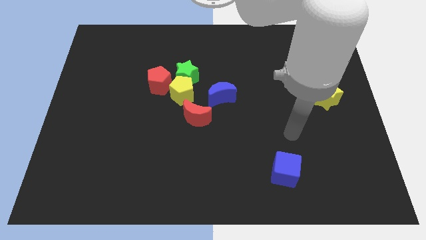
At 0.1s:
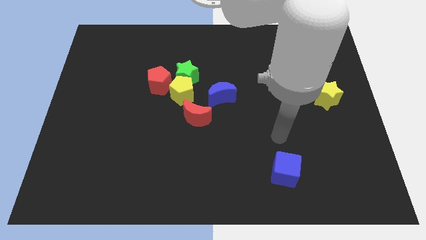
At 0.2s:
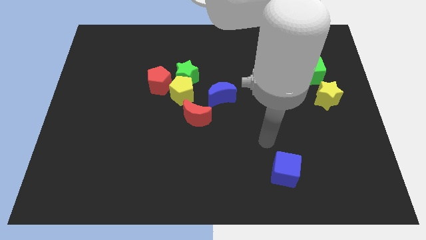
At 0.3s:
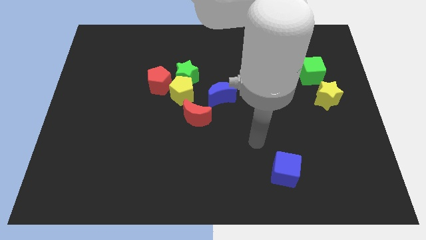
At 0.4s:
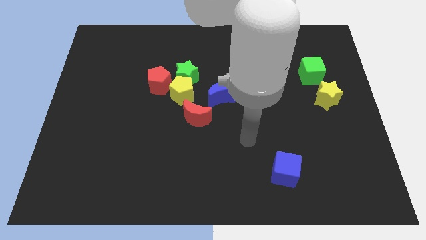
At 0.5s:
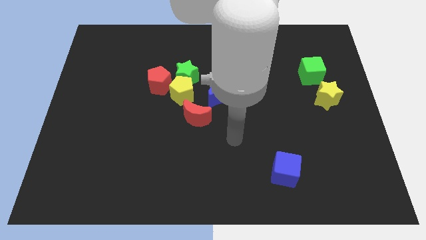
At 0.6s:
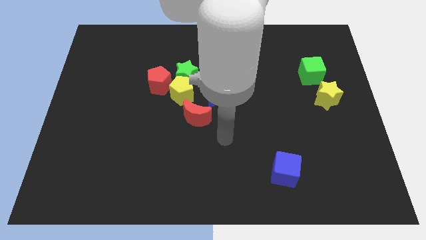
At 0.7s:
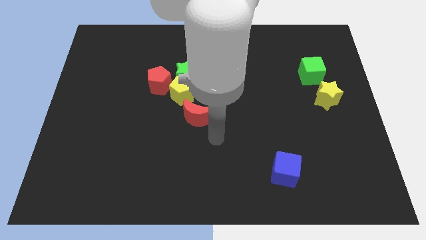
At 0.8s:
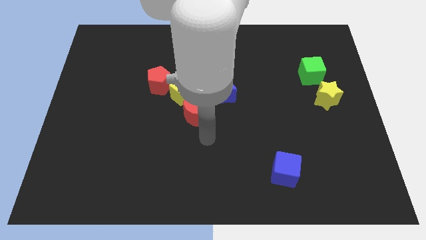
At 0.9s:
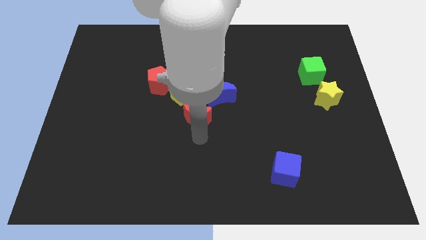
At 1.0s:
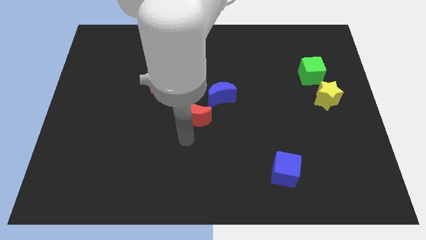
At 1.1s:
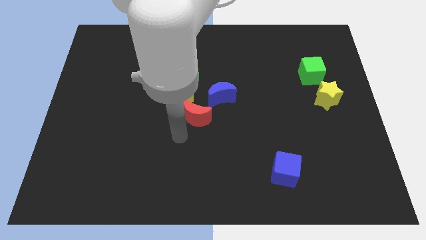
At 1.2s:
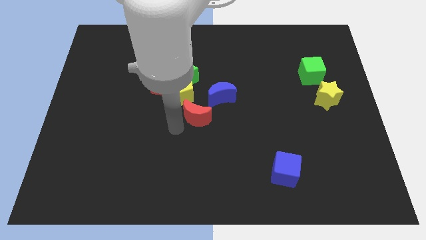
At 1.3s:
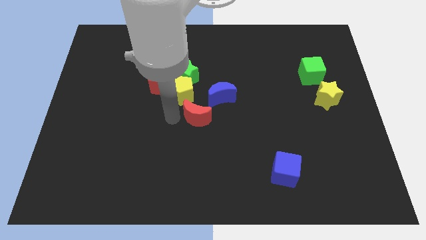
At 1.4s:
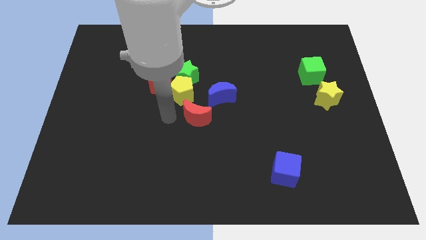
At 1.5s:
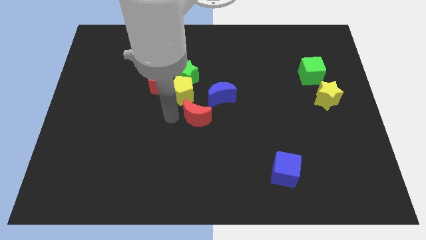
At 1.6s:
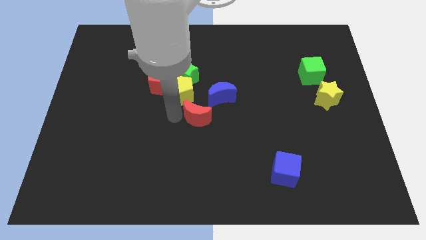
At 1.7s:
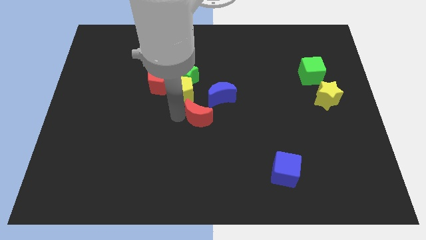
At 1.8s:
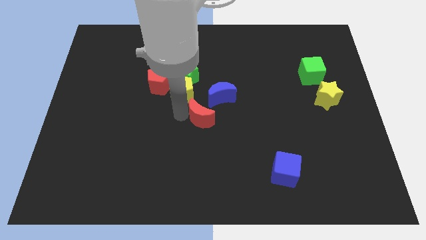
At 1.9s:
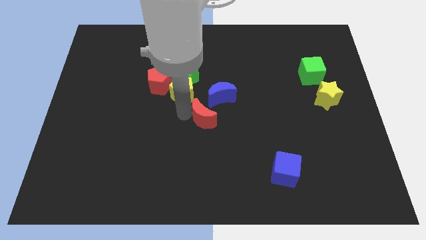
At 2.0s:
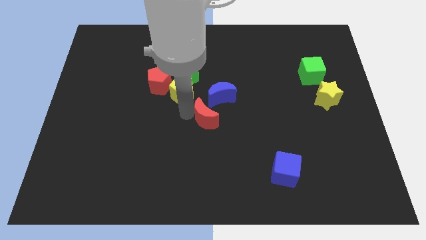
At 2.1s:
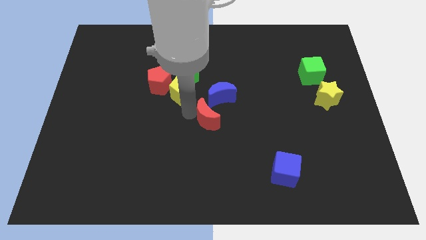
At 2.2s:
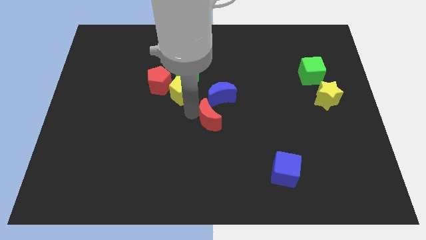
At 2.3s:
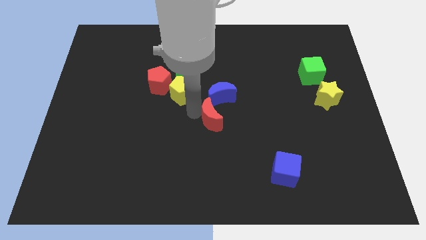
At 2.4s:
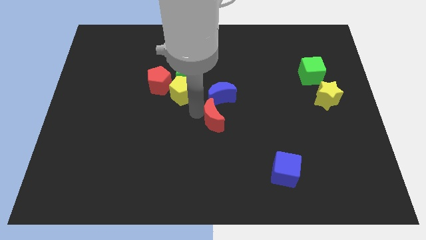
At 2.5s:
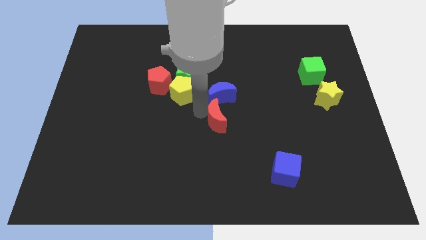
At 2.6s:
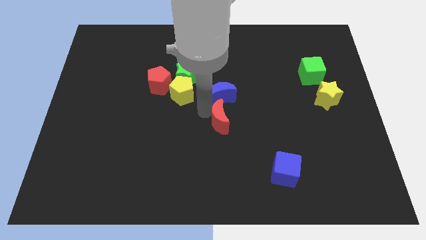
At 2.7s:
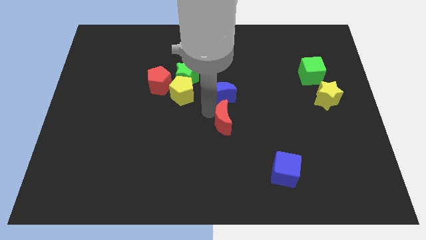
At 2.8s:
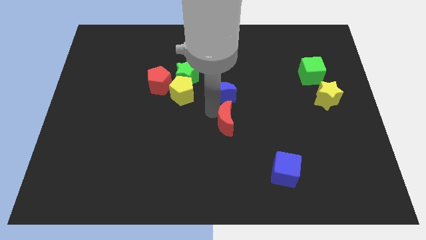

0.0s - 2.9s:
push the red moon a little right

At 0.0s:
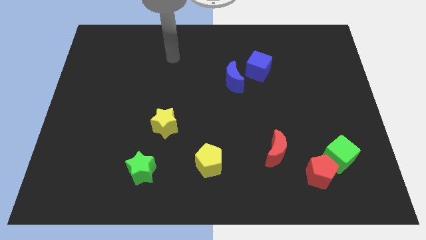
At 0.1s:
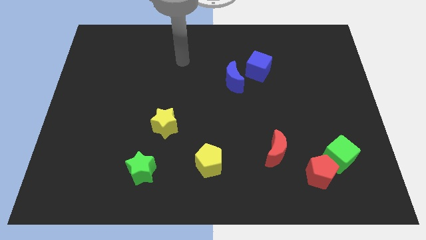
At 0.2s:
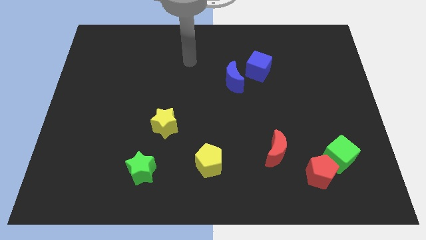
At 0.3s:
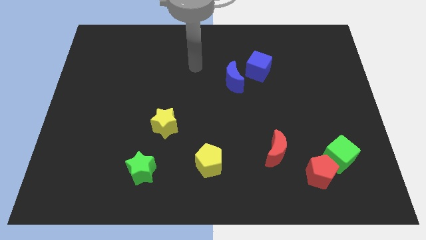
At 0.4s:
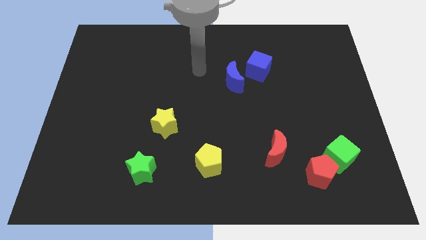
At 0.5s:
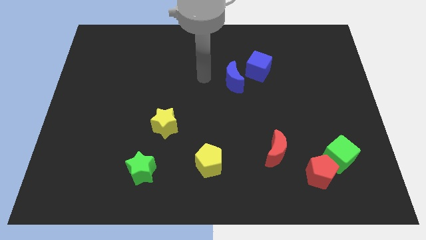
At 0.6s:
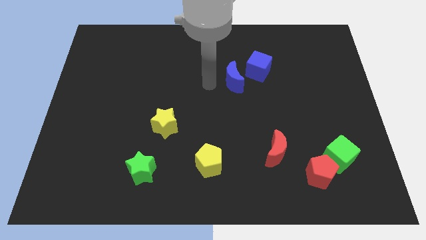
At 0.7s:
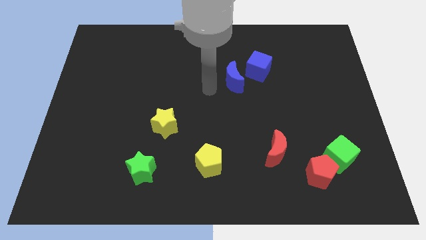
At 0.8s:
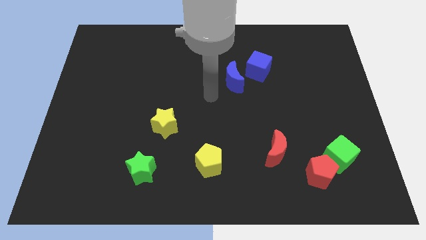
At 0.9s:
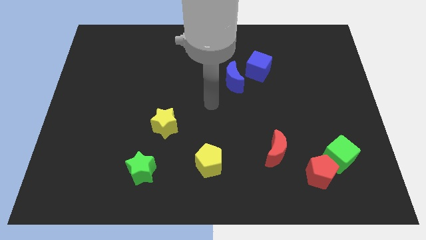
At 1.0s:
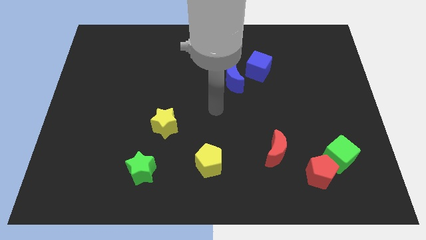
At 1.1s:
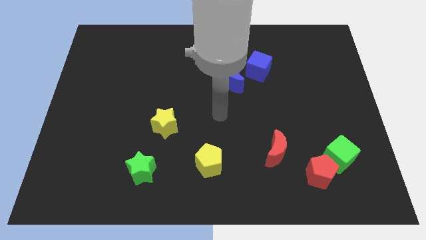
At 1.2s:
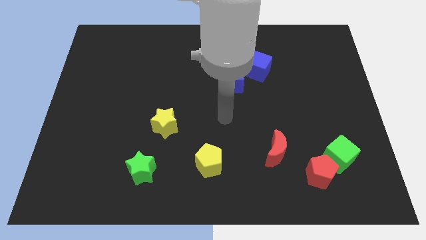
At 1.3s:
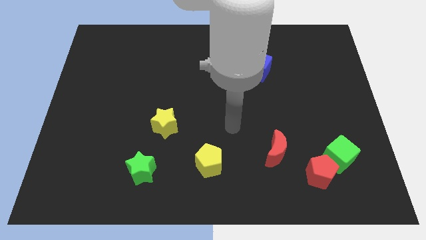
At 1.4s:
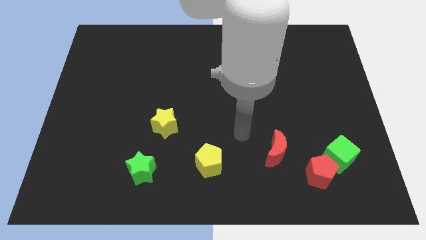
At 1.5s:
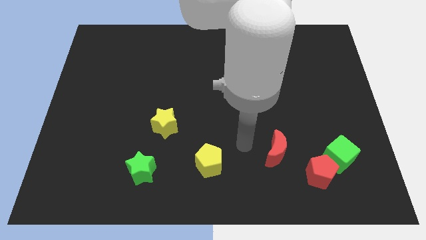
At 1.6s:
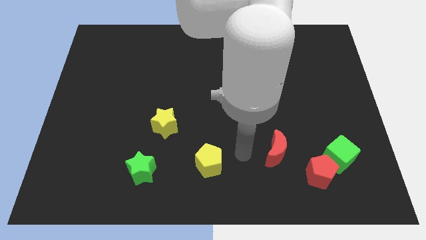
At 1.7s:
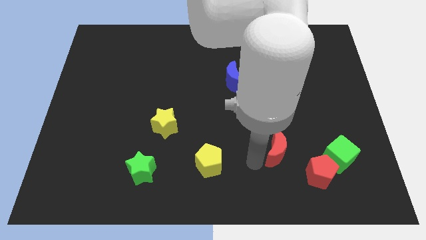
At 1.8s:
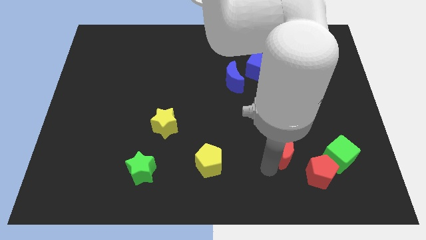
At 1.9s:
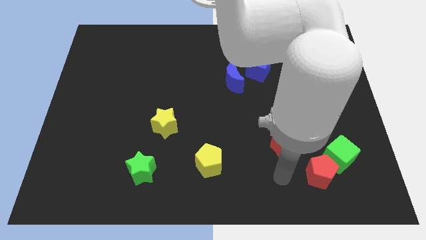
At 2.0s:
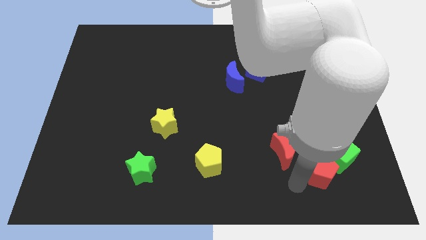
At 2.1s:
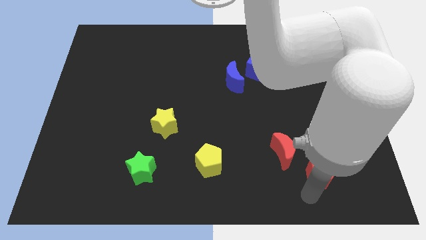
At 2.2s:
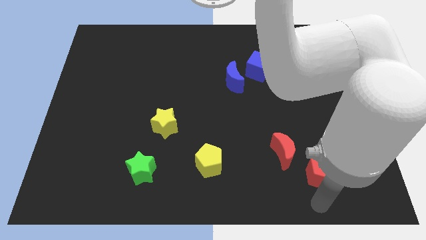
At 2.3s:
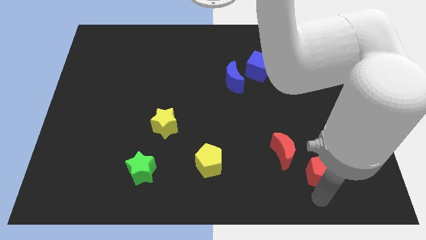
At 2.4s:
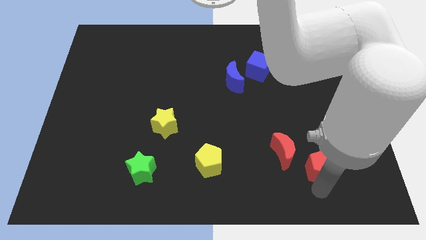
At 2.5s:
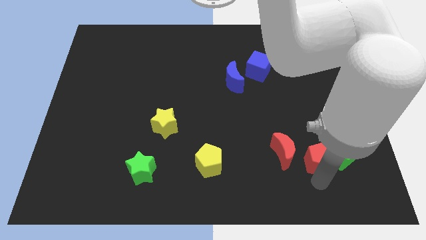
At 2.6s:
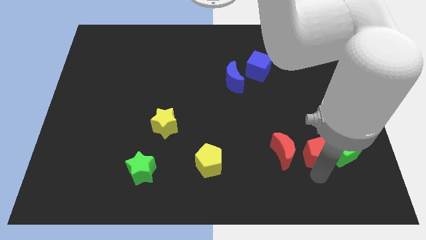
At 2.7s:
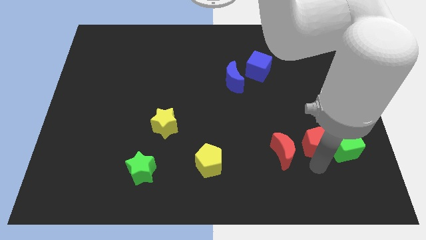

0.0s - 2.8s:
push the red pentagon upwards a little bit

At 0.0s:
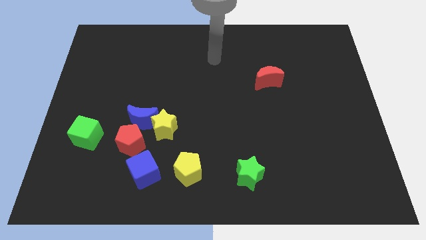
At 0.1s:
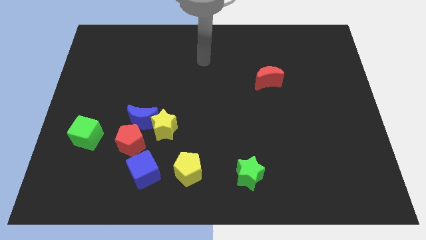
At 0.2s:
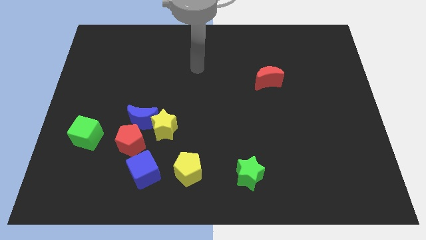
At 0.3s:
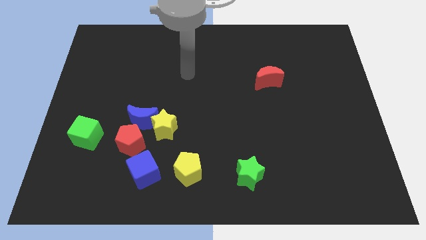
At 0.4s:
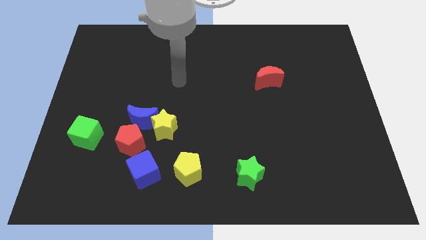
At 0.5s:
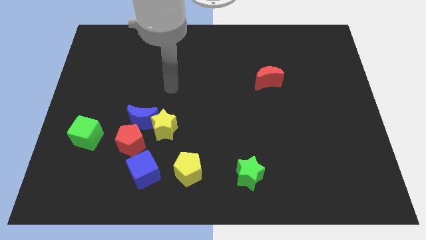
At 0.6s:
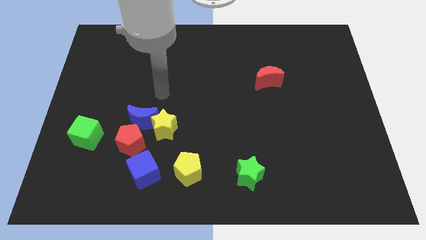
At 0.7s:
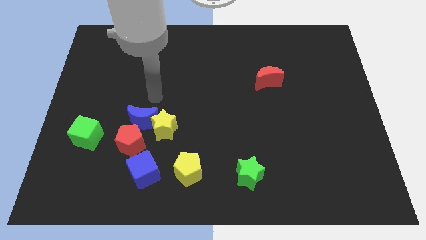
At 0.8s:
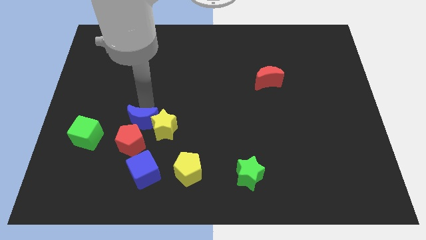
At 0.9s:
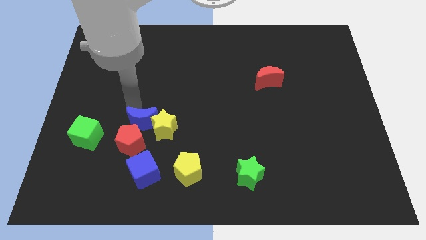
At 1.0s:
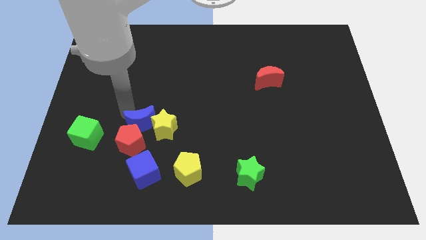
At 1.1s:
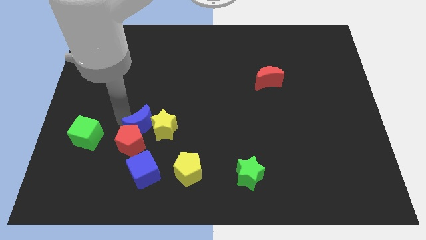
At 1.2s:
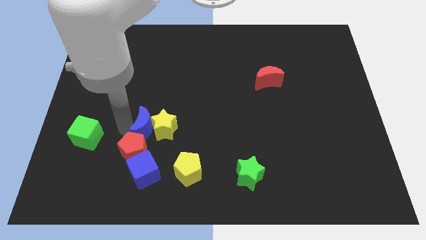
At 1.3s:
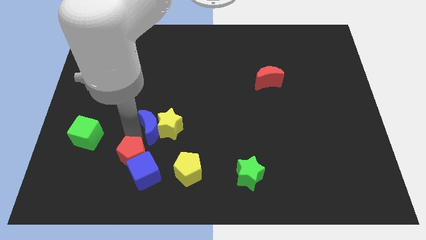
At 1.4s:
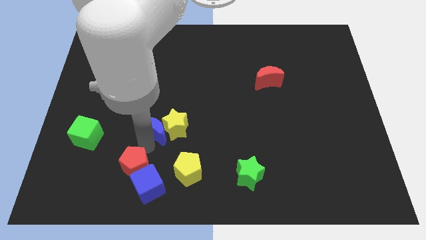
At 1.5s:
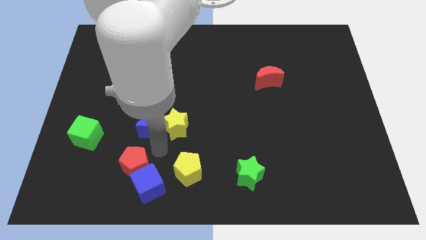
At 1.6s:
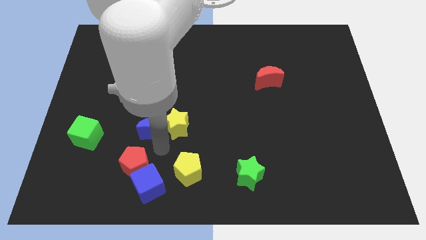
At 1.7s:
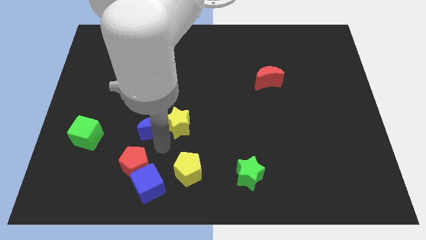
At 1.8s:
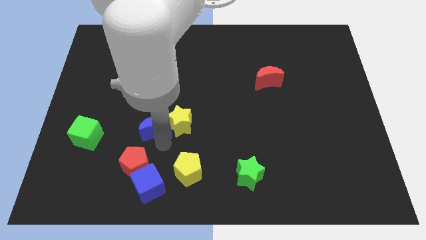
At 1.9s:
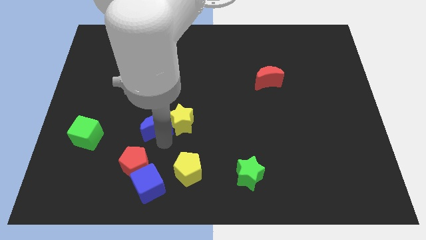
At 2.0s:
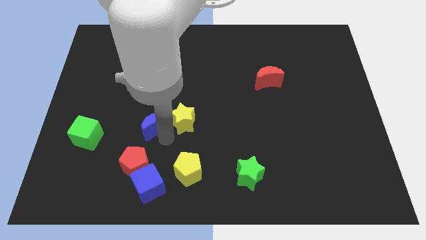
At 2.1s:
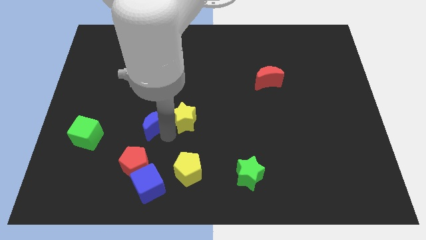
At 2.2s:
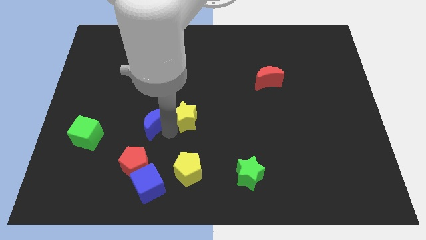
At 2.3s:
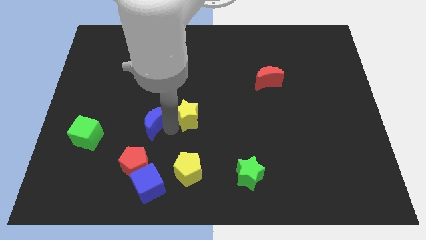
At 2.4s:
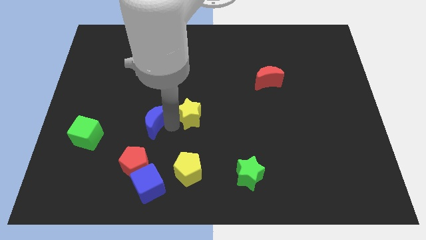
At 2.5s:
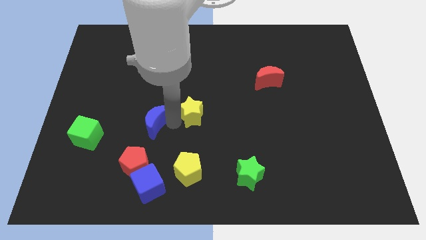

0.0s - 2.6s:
slightly slide the yellow star up and to the right
